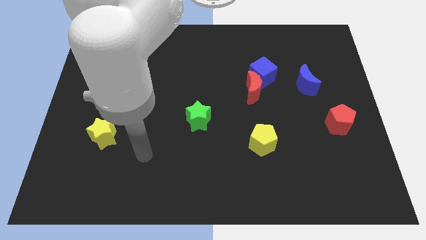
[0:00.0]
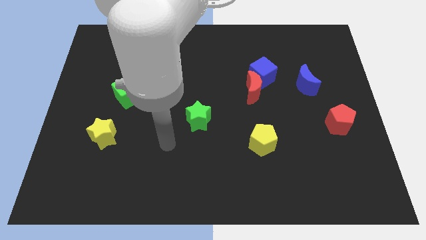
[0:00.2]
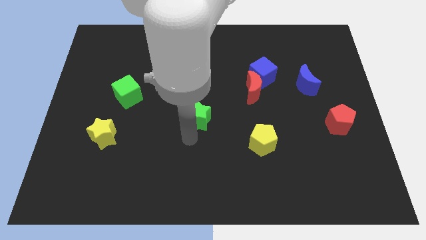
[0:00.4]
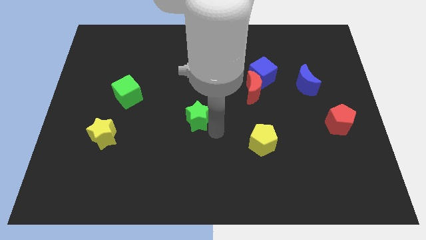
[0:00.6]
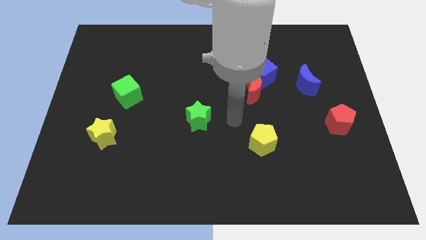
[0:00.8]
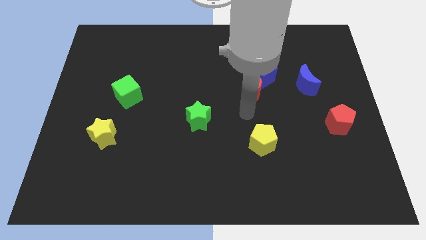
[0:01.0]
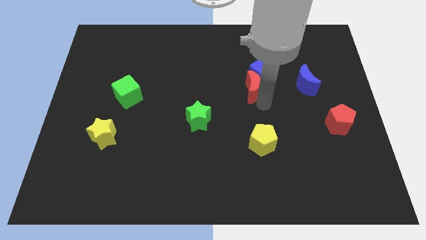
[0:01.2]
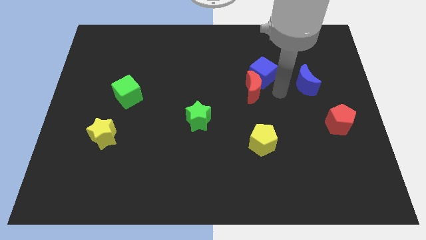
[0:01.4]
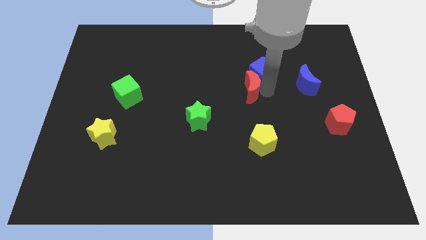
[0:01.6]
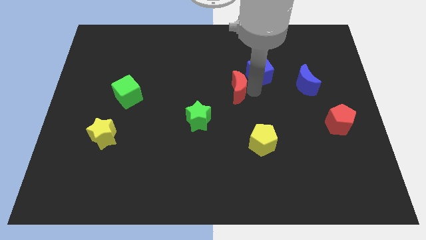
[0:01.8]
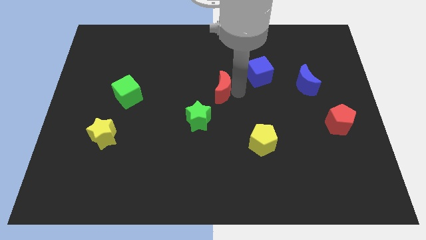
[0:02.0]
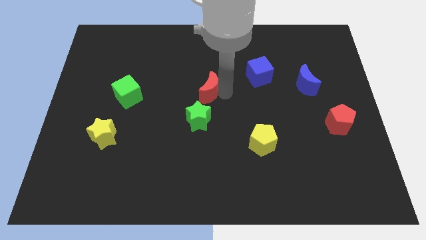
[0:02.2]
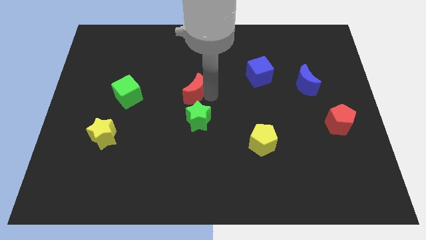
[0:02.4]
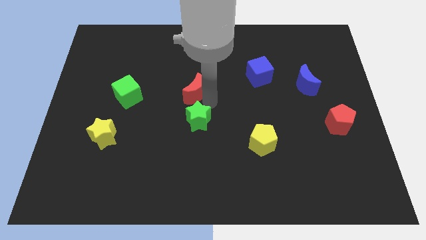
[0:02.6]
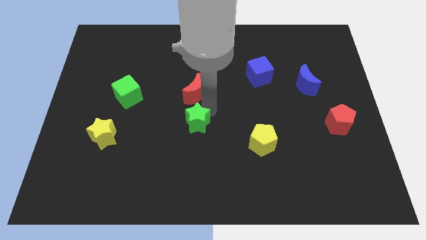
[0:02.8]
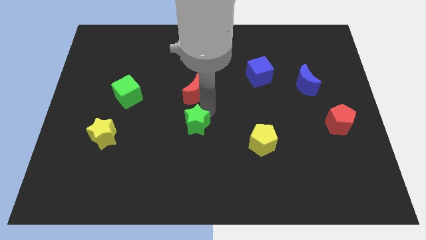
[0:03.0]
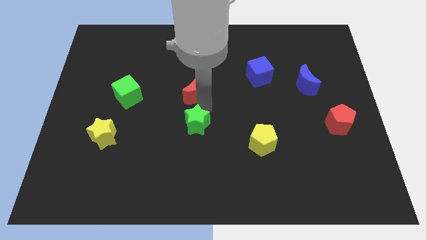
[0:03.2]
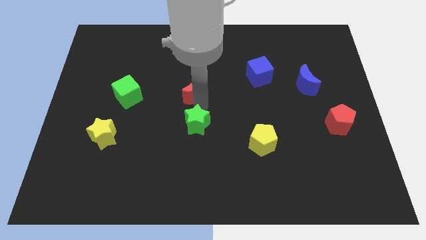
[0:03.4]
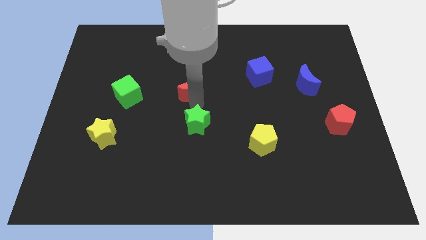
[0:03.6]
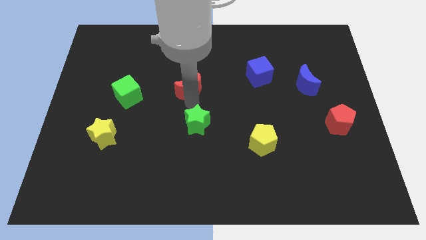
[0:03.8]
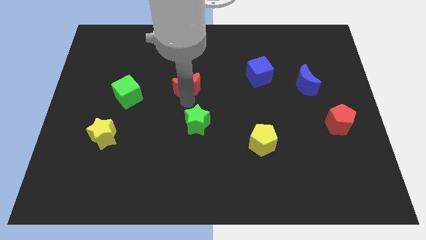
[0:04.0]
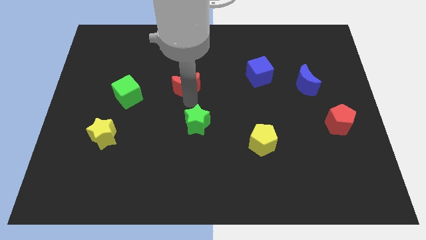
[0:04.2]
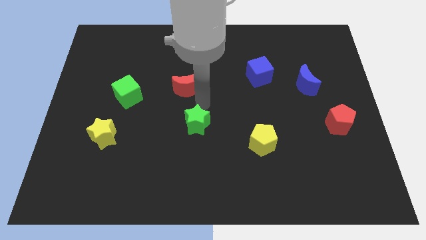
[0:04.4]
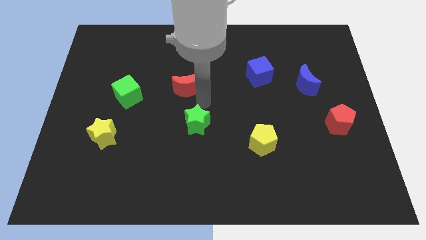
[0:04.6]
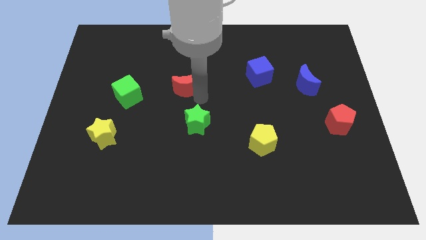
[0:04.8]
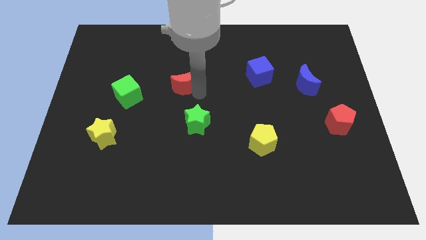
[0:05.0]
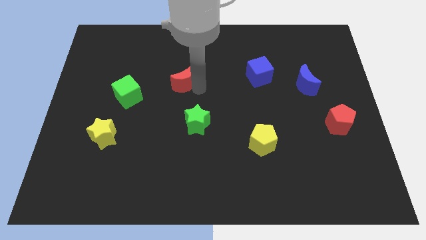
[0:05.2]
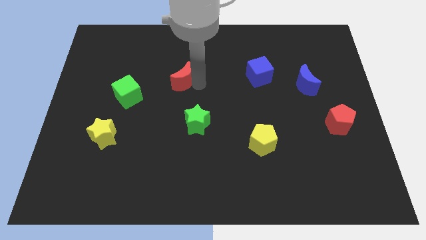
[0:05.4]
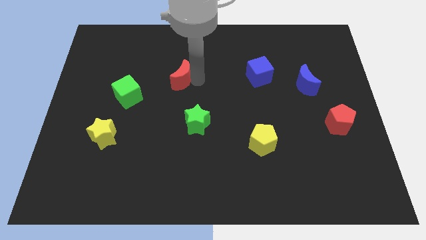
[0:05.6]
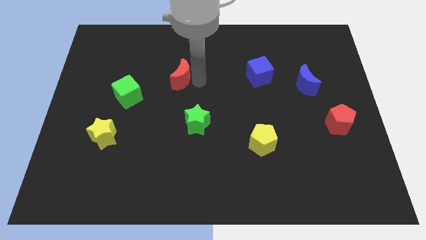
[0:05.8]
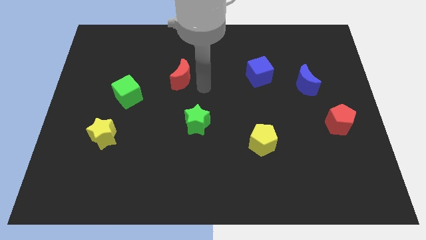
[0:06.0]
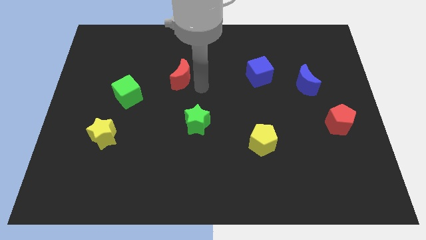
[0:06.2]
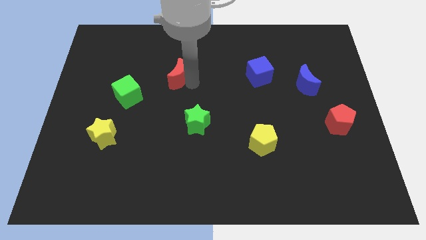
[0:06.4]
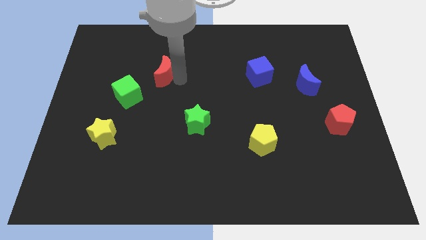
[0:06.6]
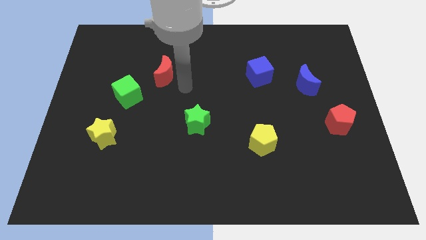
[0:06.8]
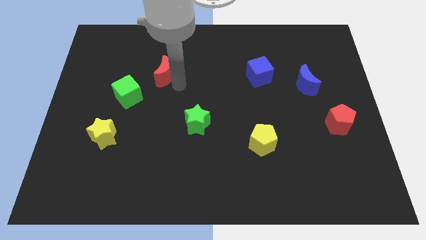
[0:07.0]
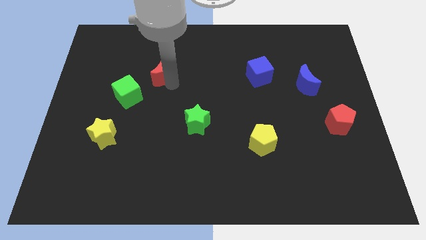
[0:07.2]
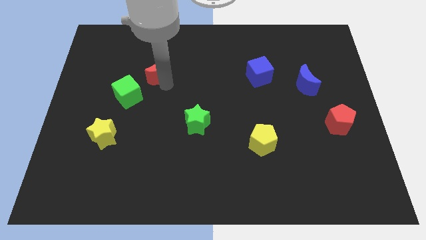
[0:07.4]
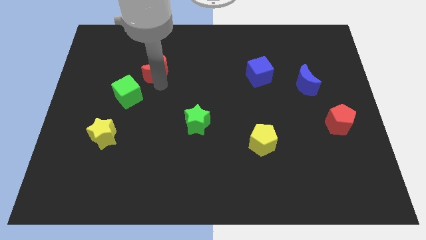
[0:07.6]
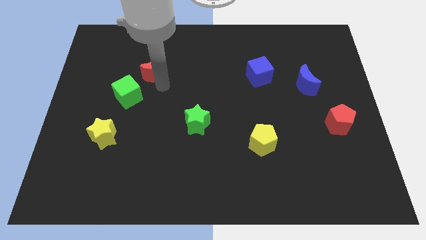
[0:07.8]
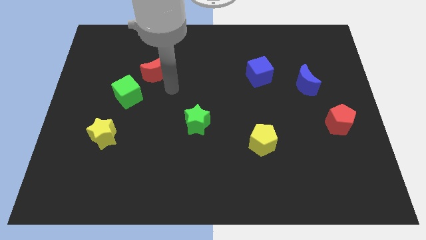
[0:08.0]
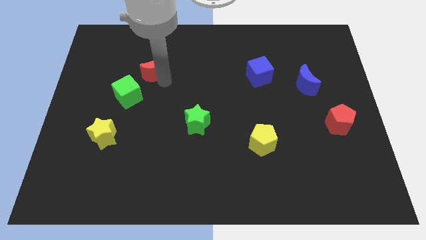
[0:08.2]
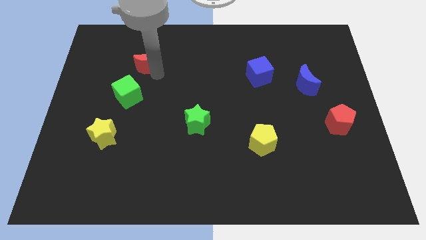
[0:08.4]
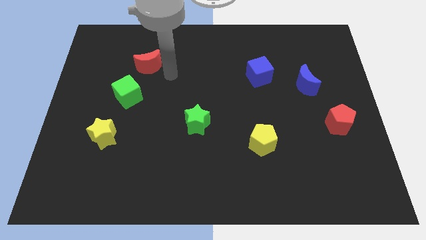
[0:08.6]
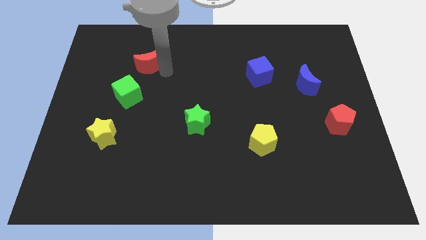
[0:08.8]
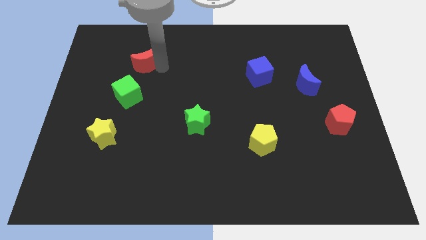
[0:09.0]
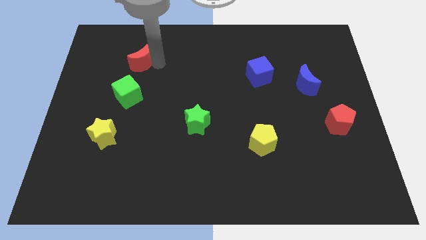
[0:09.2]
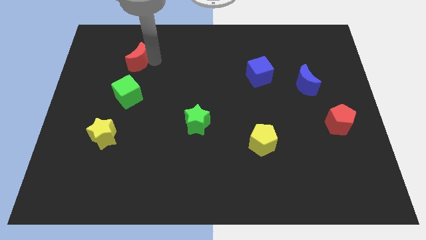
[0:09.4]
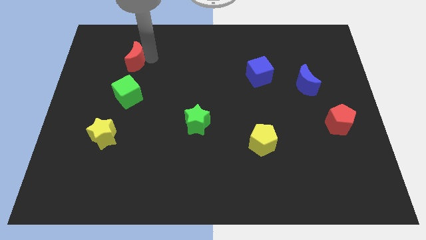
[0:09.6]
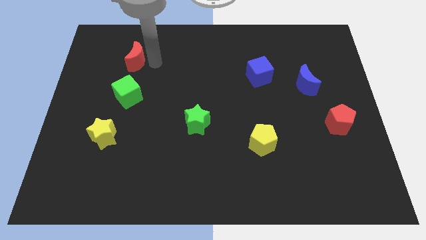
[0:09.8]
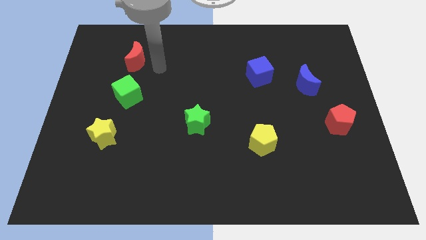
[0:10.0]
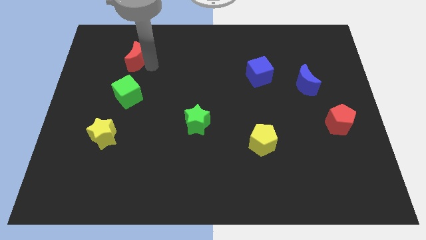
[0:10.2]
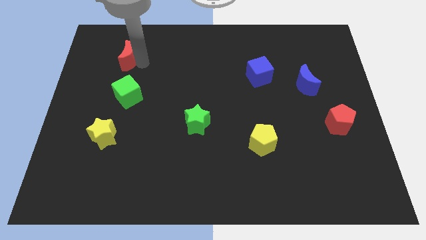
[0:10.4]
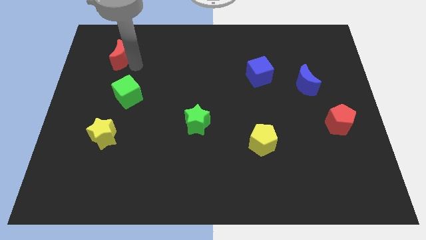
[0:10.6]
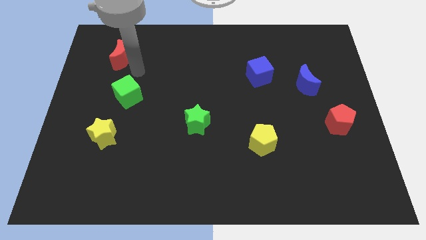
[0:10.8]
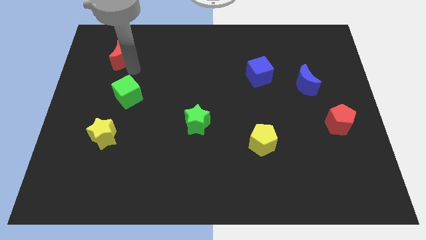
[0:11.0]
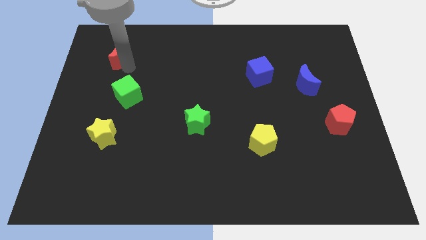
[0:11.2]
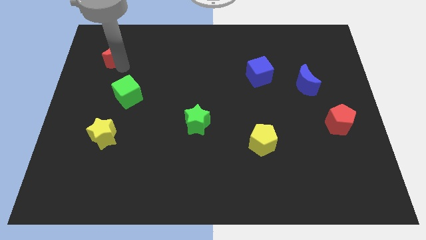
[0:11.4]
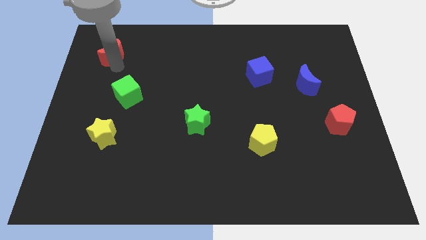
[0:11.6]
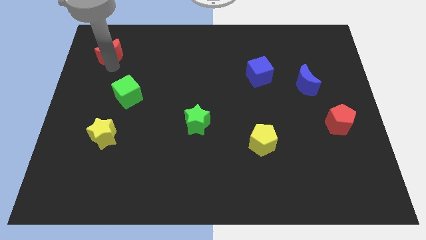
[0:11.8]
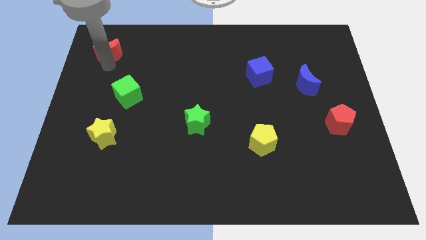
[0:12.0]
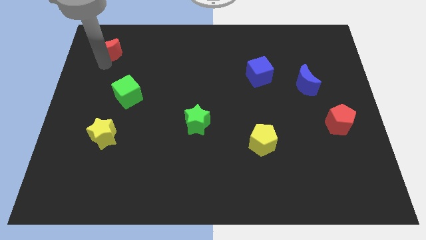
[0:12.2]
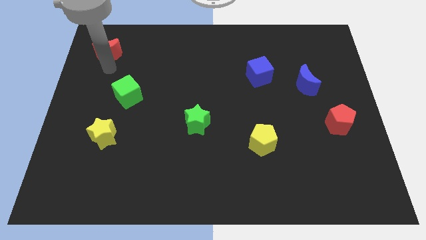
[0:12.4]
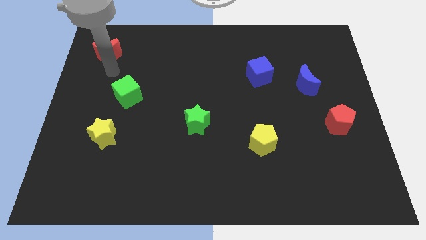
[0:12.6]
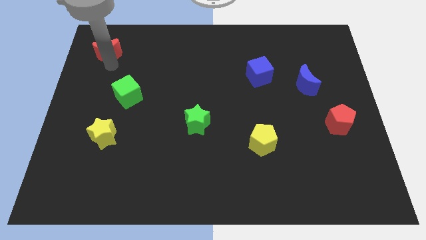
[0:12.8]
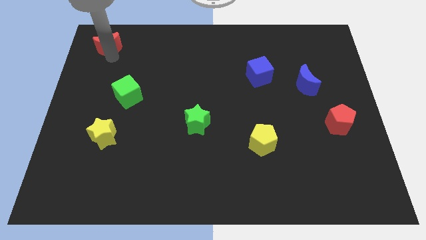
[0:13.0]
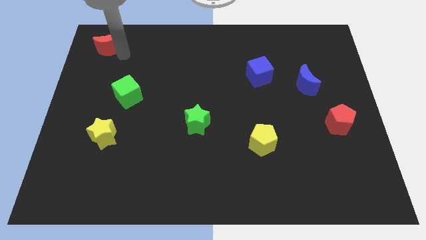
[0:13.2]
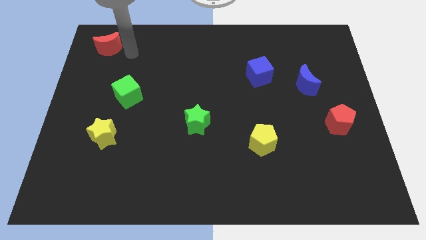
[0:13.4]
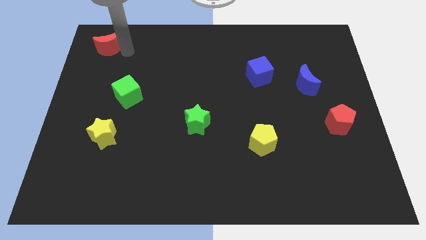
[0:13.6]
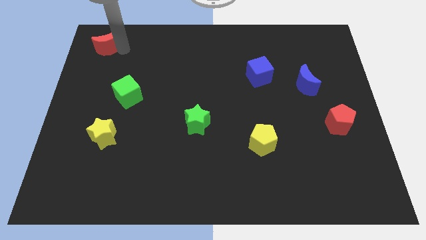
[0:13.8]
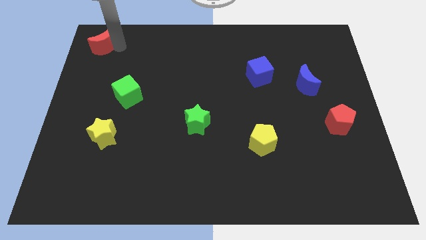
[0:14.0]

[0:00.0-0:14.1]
move the red moon to the top left of the board
